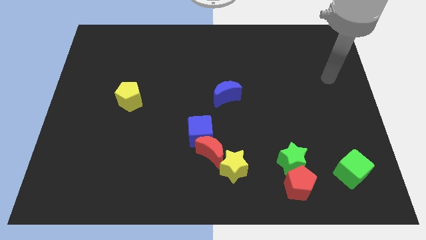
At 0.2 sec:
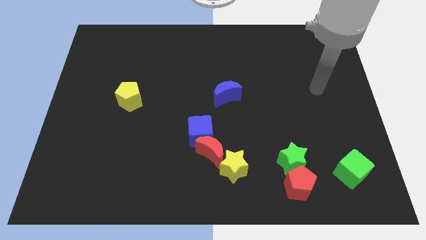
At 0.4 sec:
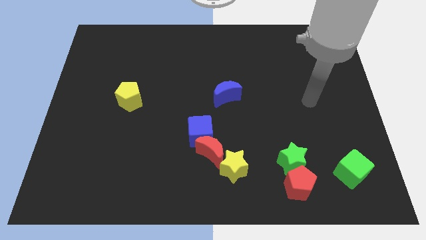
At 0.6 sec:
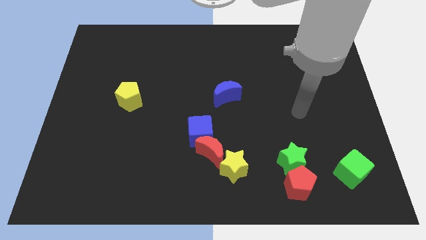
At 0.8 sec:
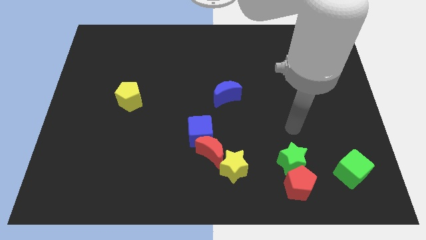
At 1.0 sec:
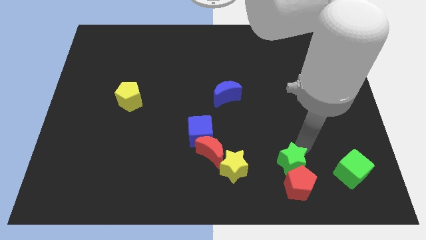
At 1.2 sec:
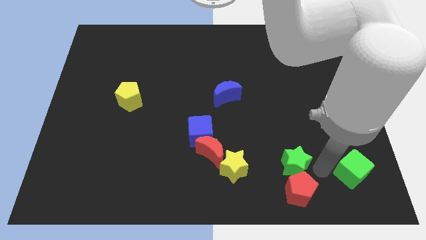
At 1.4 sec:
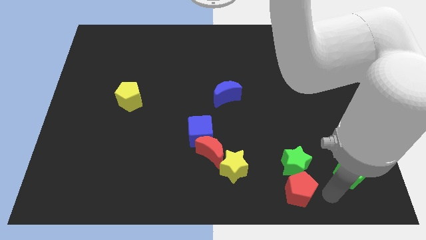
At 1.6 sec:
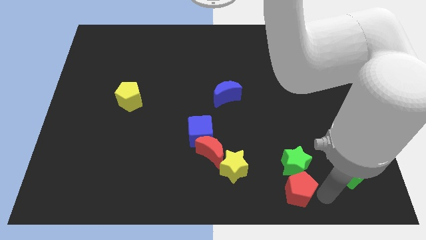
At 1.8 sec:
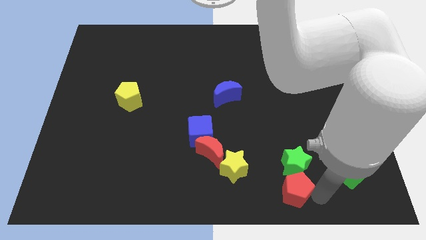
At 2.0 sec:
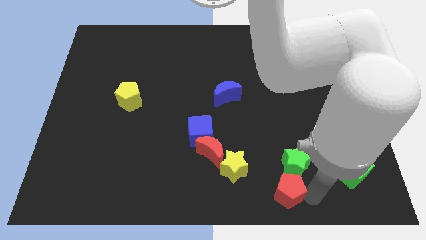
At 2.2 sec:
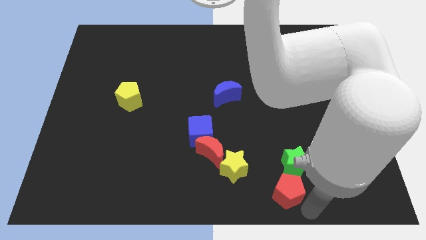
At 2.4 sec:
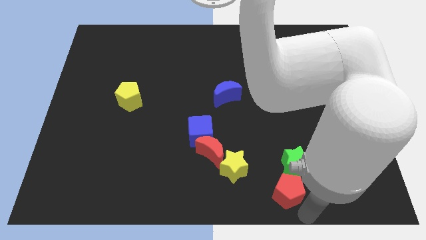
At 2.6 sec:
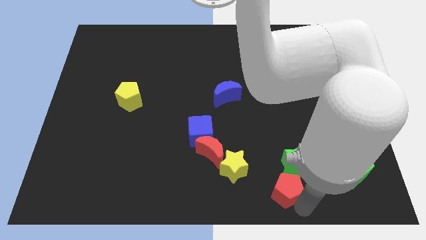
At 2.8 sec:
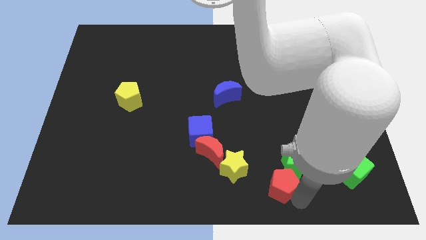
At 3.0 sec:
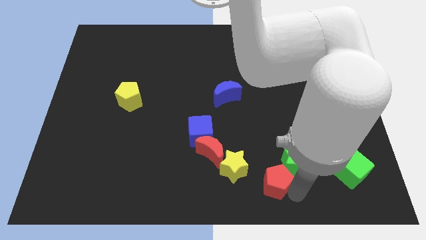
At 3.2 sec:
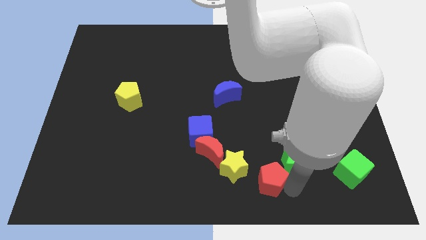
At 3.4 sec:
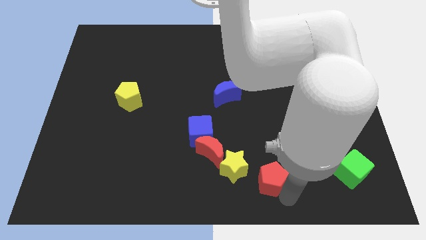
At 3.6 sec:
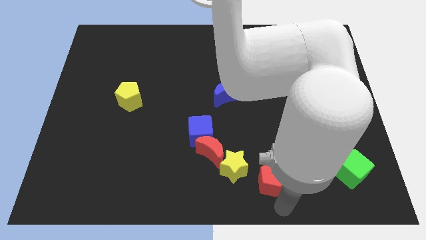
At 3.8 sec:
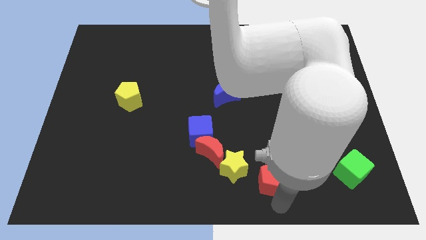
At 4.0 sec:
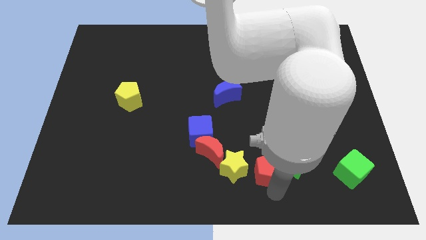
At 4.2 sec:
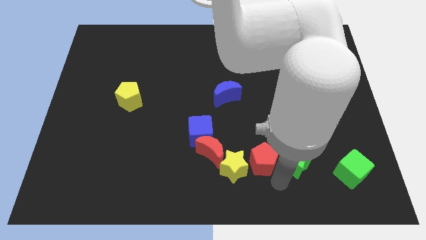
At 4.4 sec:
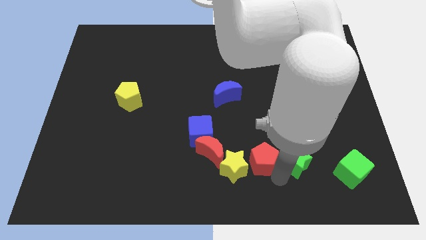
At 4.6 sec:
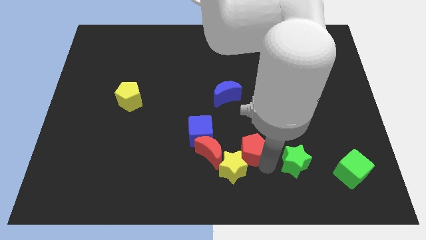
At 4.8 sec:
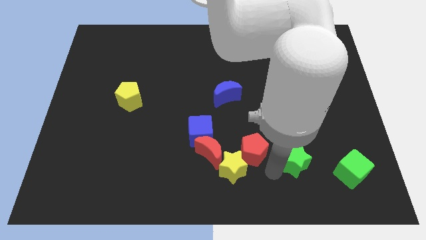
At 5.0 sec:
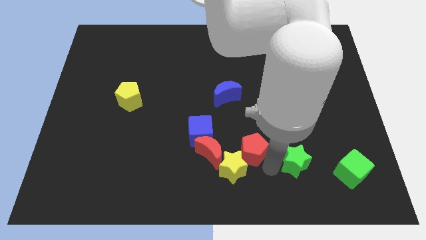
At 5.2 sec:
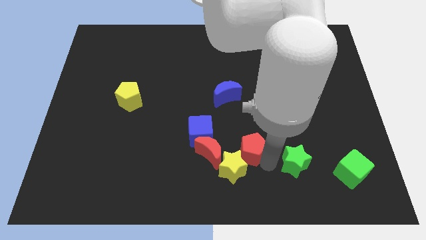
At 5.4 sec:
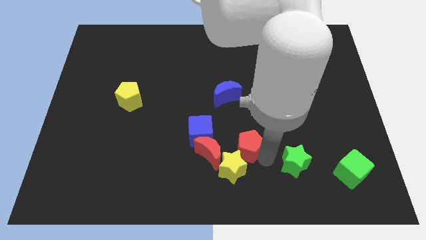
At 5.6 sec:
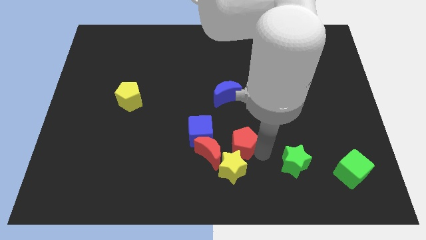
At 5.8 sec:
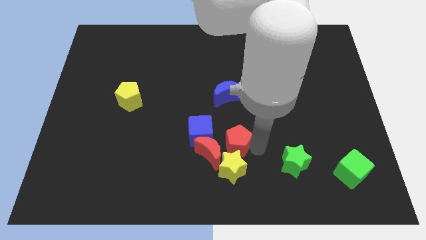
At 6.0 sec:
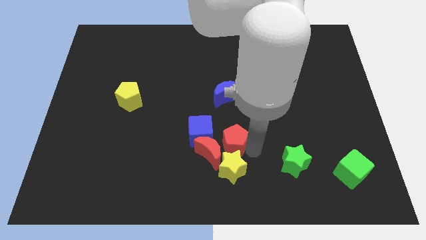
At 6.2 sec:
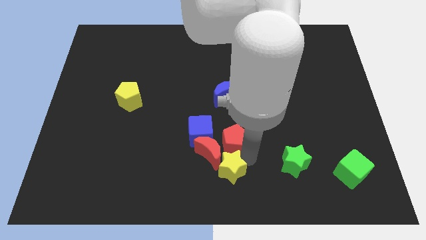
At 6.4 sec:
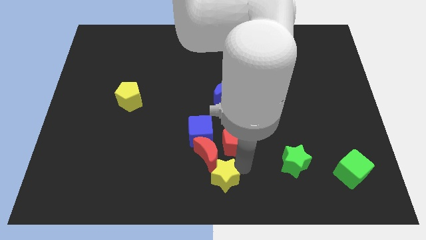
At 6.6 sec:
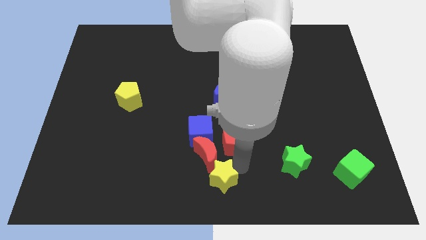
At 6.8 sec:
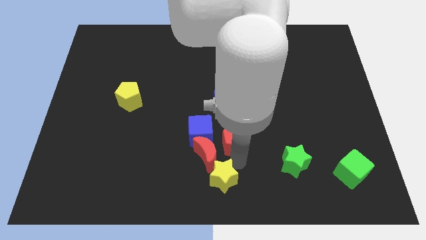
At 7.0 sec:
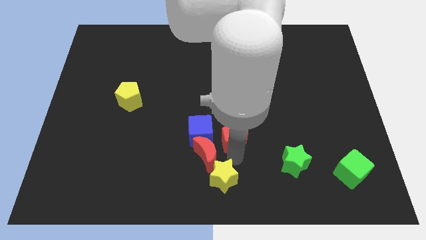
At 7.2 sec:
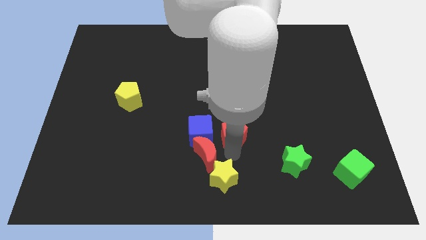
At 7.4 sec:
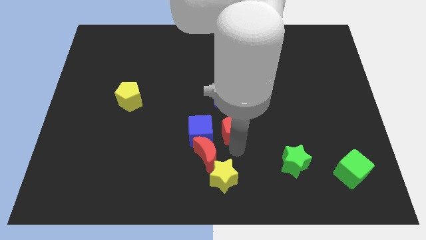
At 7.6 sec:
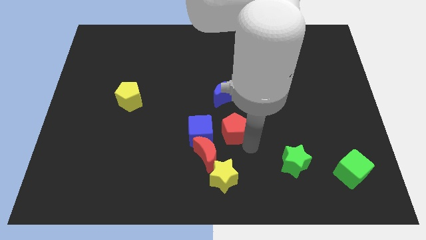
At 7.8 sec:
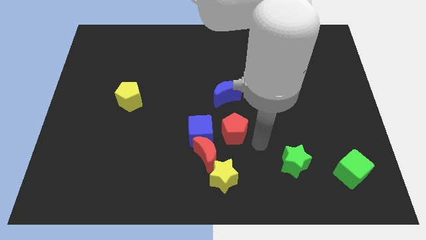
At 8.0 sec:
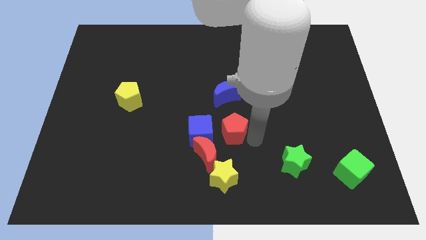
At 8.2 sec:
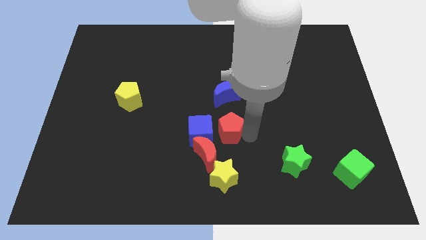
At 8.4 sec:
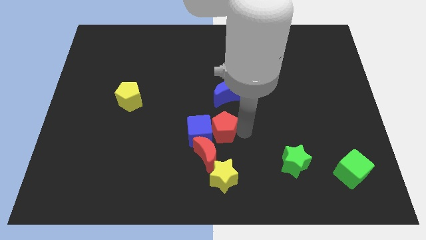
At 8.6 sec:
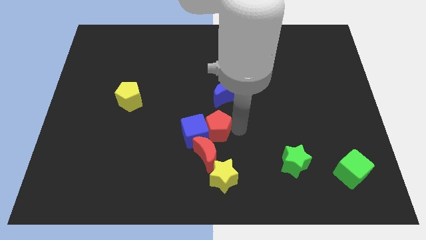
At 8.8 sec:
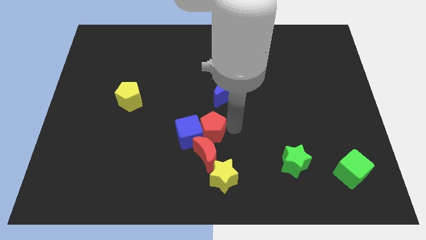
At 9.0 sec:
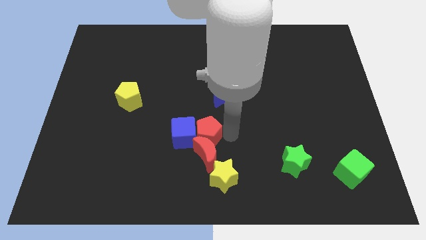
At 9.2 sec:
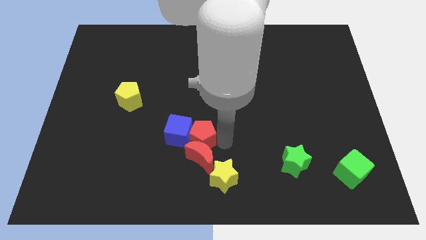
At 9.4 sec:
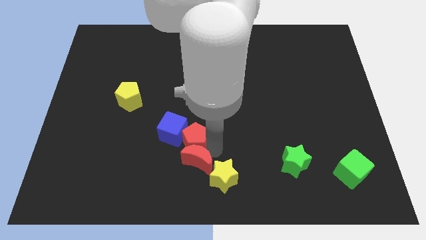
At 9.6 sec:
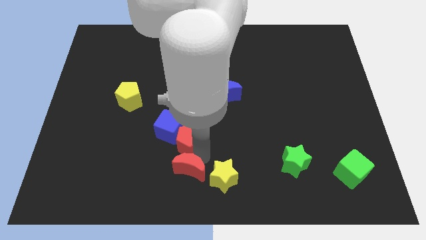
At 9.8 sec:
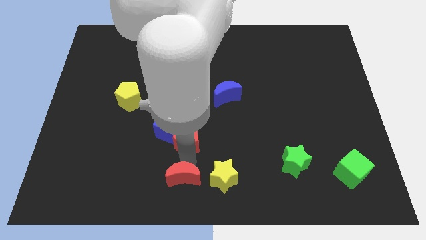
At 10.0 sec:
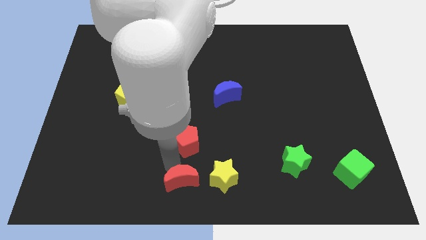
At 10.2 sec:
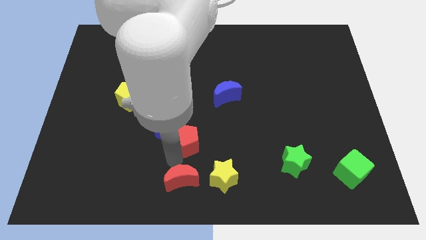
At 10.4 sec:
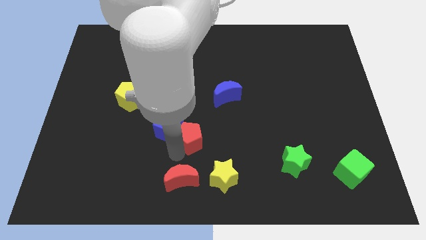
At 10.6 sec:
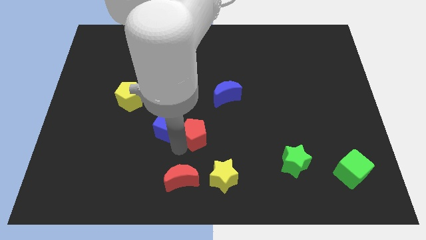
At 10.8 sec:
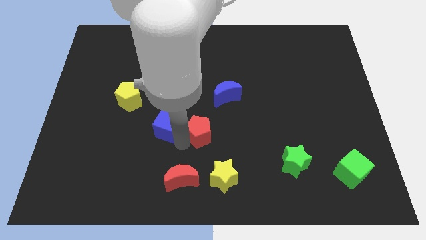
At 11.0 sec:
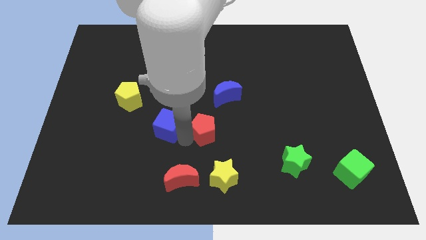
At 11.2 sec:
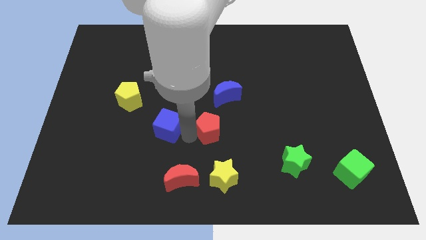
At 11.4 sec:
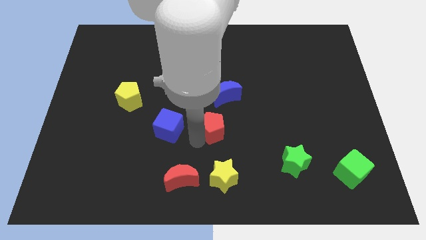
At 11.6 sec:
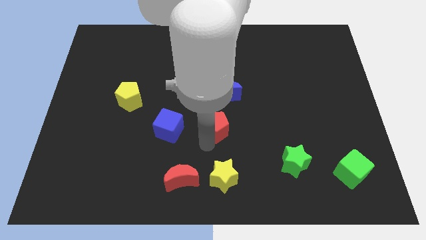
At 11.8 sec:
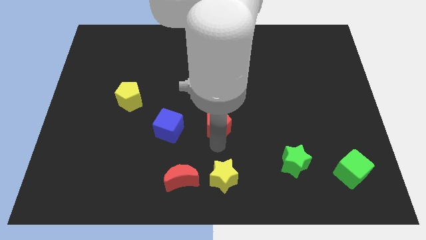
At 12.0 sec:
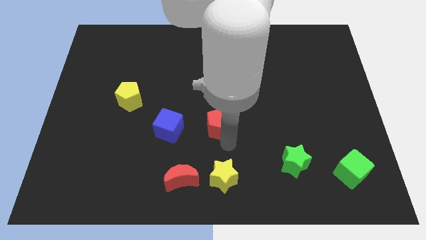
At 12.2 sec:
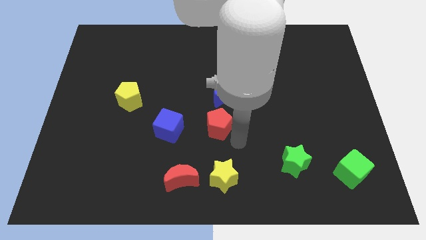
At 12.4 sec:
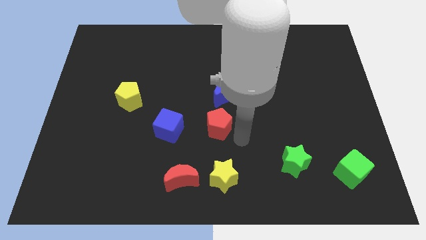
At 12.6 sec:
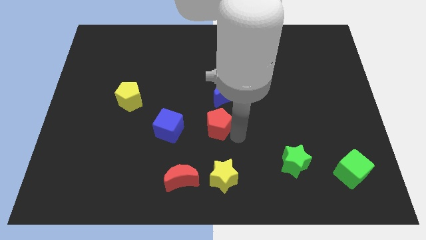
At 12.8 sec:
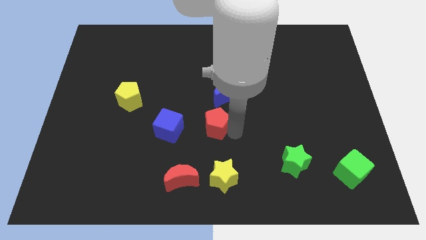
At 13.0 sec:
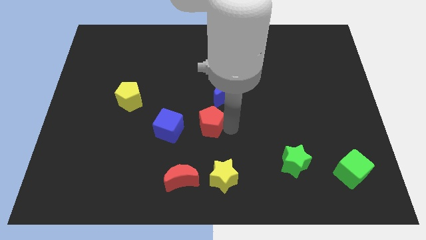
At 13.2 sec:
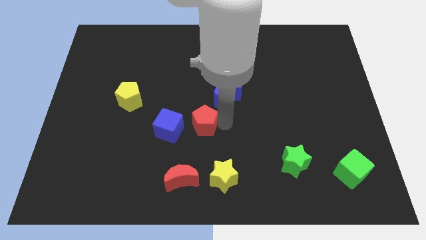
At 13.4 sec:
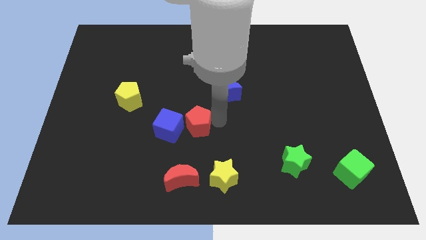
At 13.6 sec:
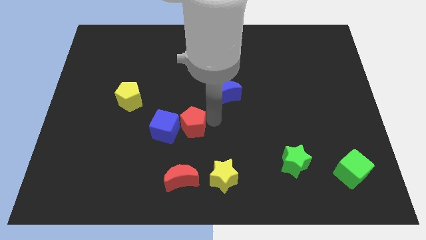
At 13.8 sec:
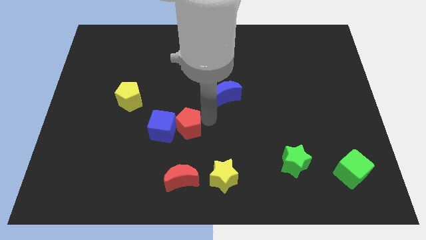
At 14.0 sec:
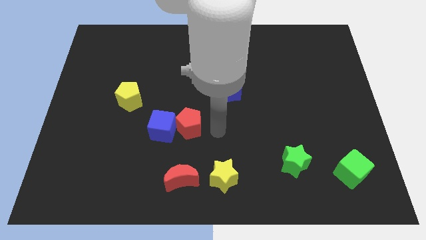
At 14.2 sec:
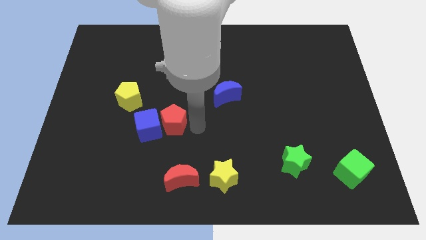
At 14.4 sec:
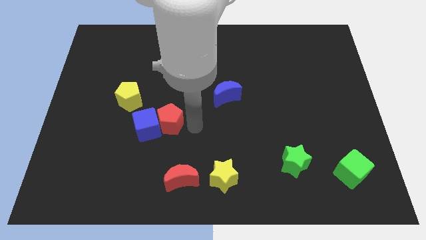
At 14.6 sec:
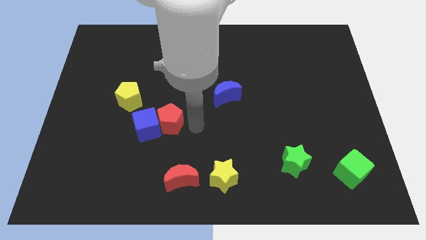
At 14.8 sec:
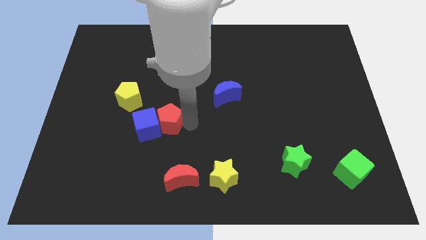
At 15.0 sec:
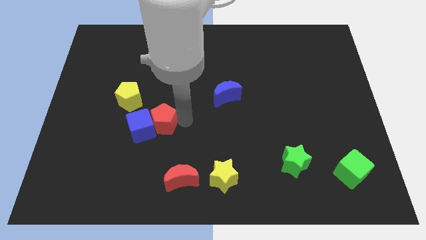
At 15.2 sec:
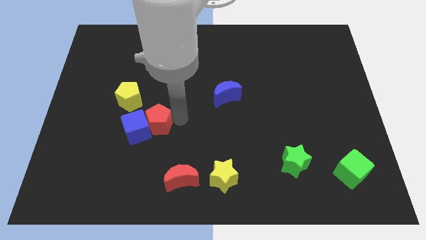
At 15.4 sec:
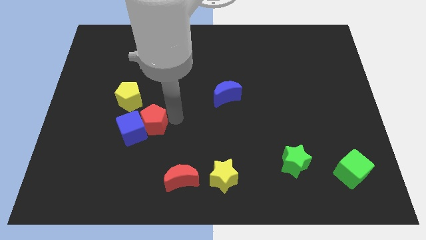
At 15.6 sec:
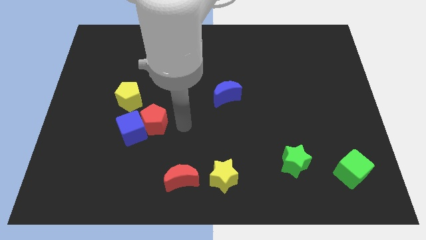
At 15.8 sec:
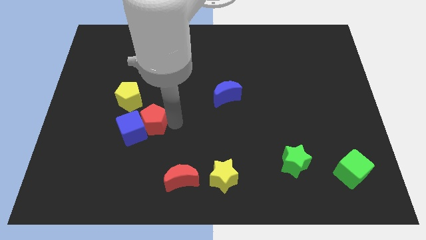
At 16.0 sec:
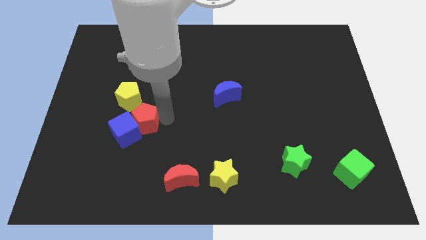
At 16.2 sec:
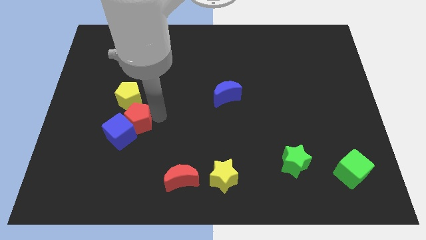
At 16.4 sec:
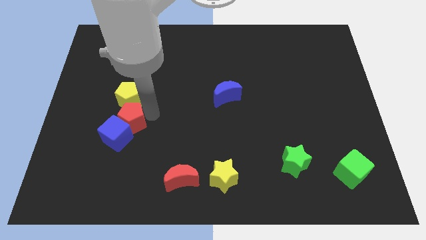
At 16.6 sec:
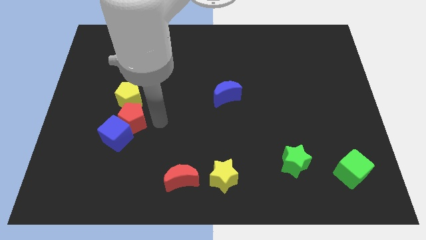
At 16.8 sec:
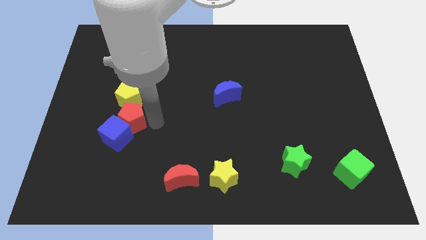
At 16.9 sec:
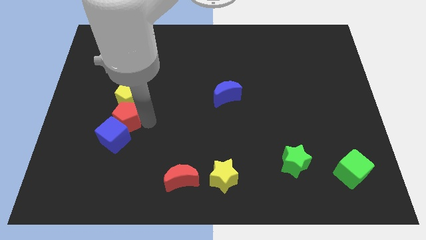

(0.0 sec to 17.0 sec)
push the red pentagon diagonally down and to the left of the yellow pentagon
